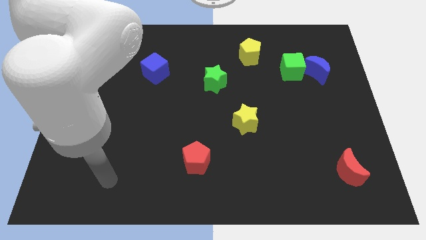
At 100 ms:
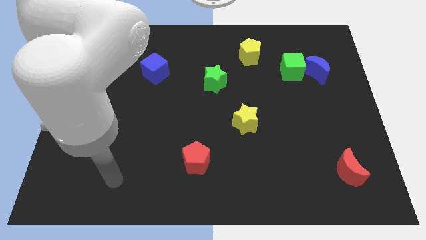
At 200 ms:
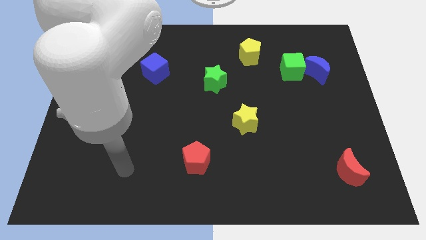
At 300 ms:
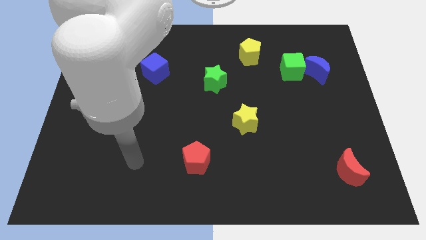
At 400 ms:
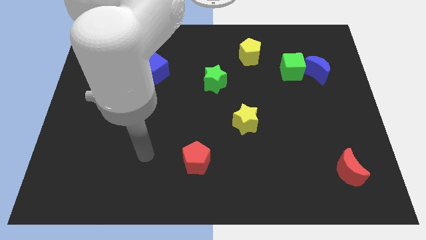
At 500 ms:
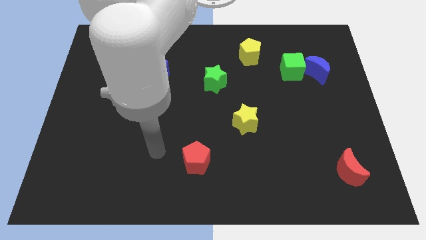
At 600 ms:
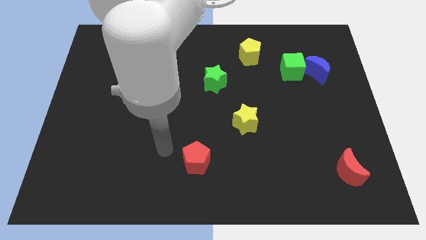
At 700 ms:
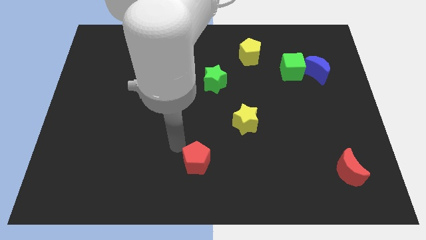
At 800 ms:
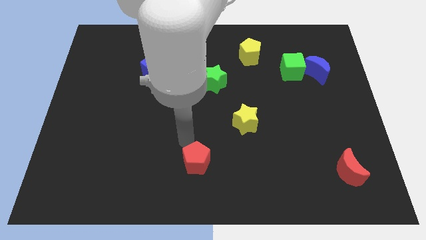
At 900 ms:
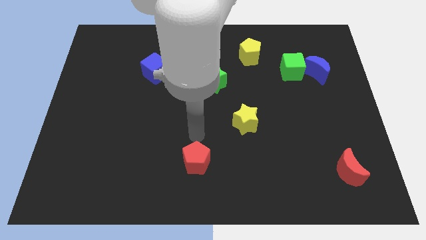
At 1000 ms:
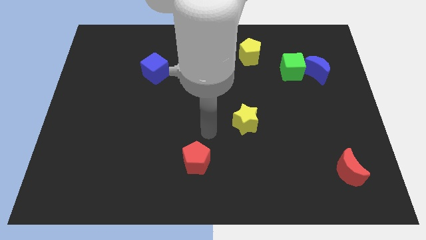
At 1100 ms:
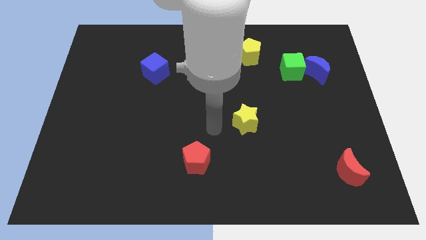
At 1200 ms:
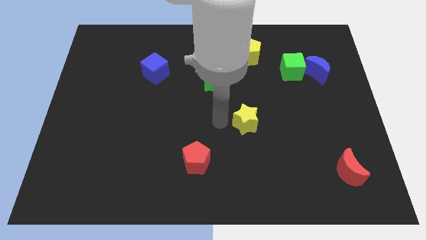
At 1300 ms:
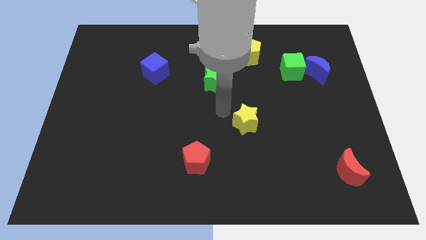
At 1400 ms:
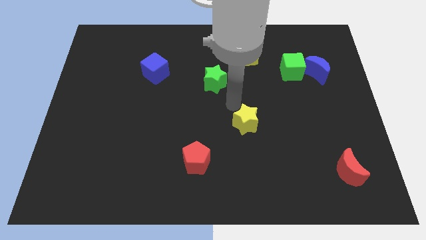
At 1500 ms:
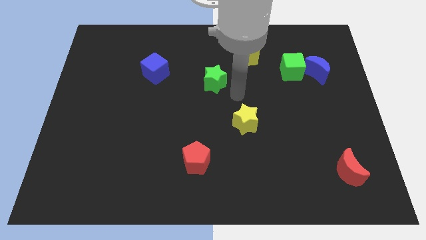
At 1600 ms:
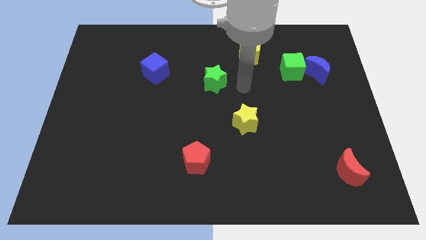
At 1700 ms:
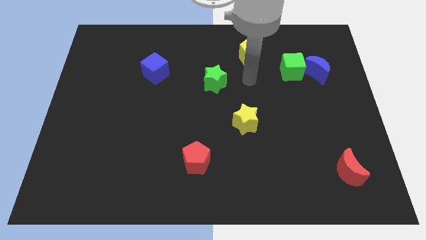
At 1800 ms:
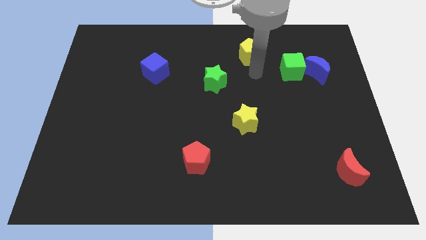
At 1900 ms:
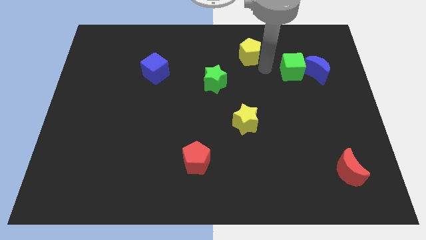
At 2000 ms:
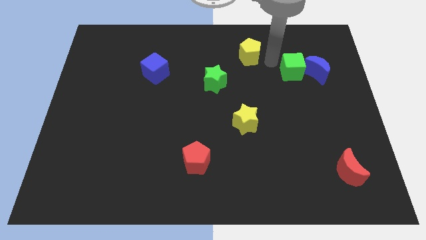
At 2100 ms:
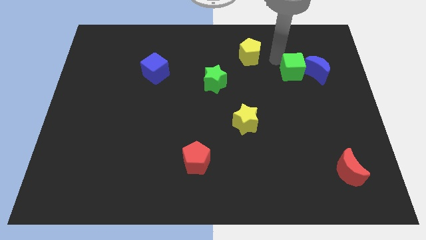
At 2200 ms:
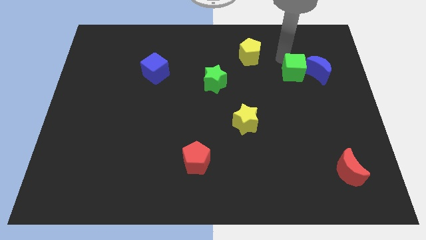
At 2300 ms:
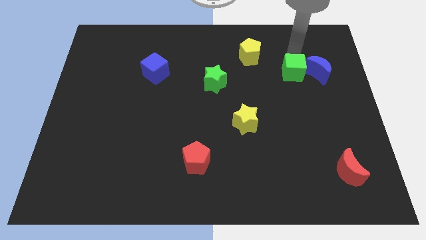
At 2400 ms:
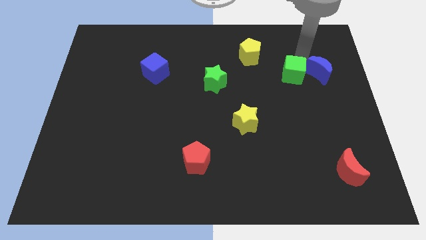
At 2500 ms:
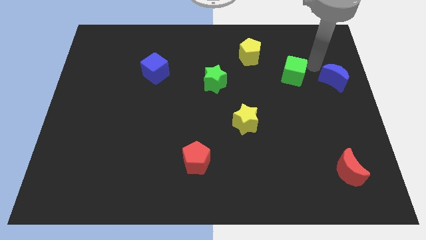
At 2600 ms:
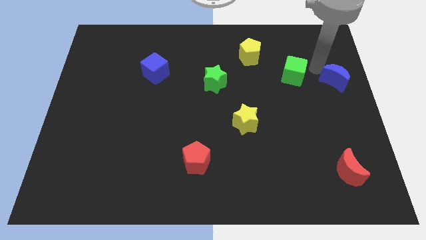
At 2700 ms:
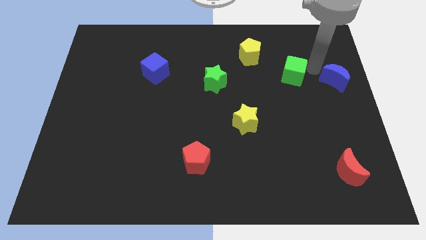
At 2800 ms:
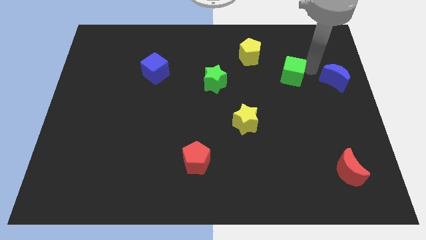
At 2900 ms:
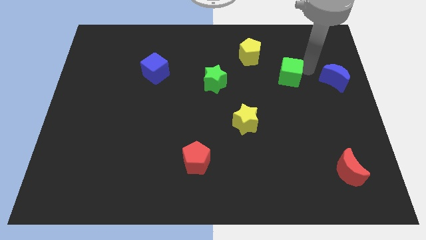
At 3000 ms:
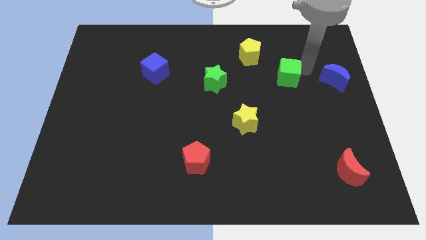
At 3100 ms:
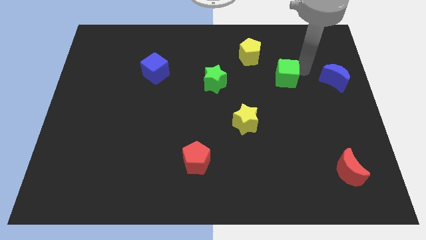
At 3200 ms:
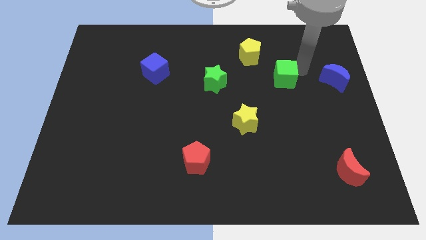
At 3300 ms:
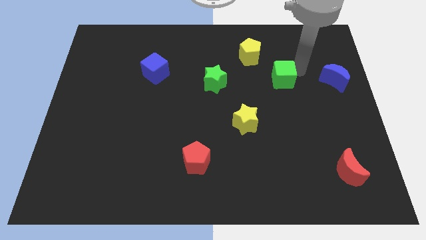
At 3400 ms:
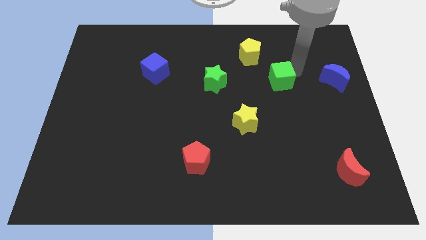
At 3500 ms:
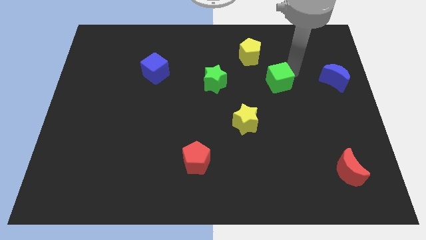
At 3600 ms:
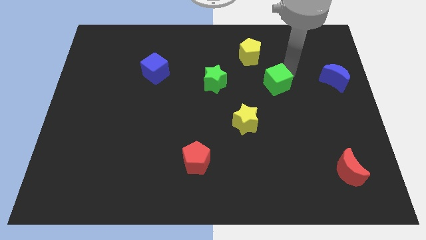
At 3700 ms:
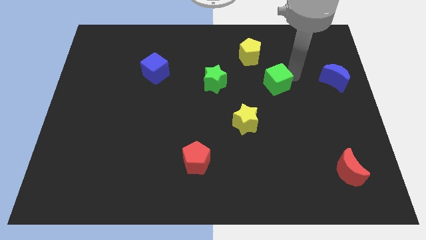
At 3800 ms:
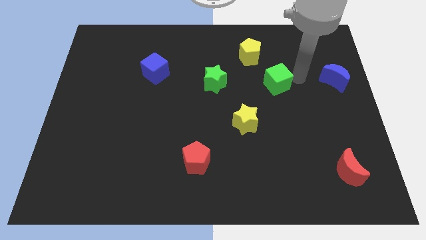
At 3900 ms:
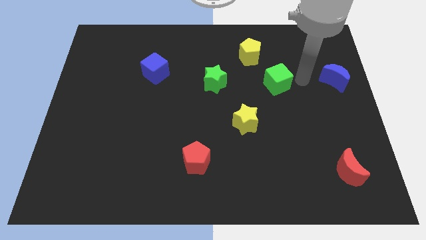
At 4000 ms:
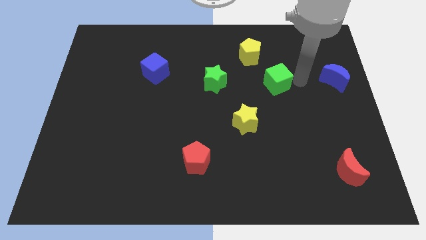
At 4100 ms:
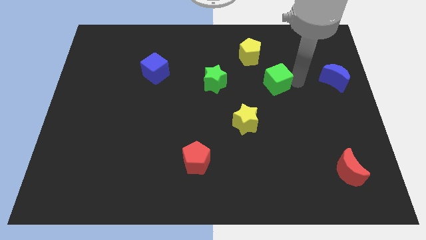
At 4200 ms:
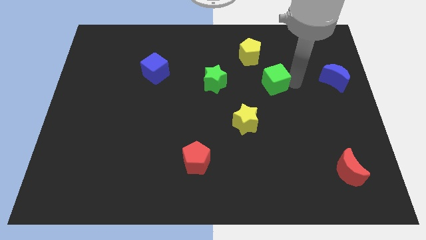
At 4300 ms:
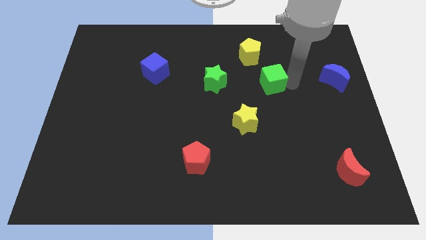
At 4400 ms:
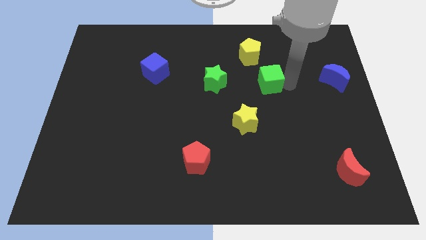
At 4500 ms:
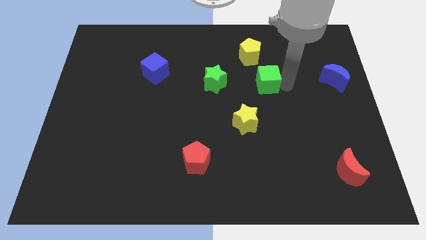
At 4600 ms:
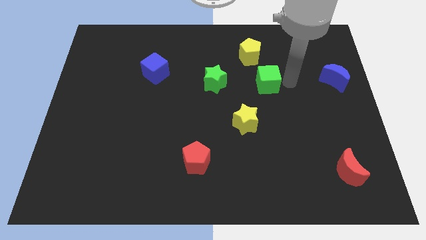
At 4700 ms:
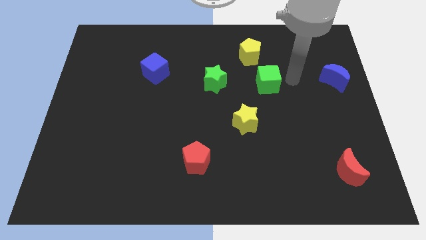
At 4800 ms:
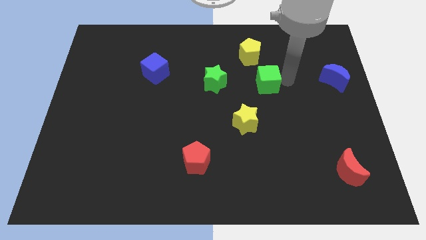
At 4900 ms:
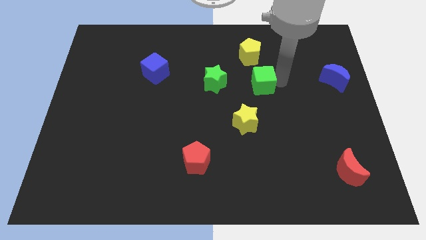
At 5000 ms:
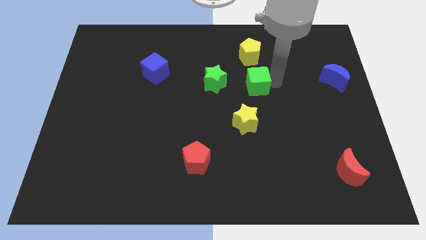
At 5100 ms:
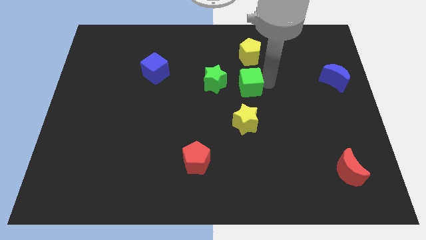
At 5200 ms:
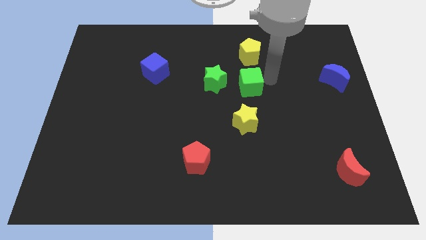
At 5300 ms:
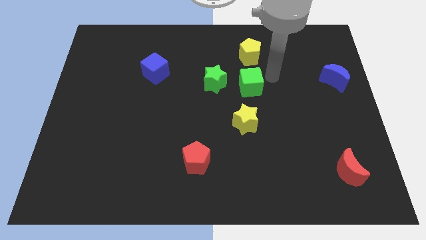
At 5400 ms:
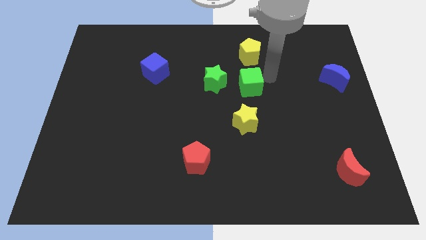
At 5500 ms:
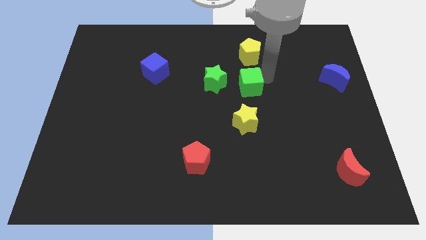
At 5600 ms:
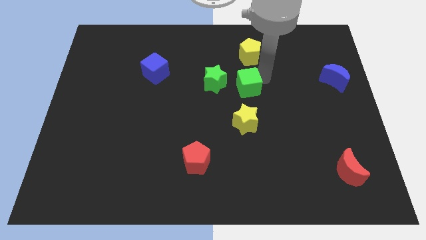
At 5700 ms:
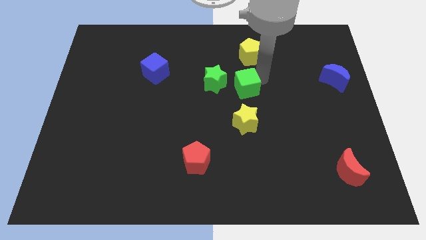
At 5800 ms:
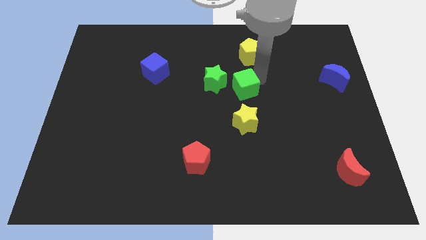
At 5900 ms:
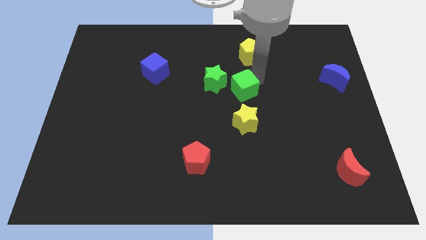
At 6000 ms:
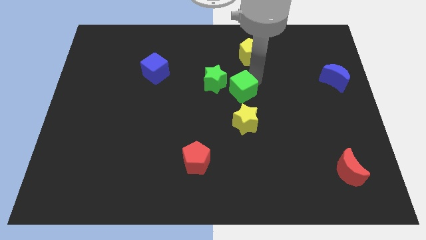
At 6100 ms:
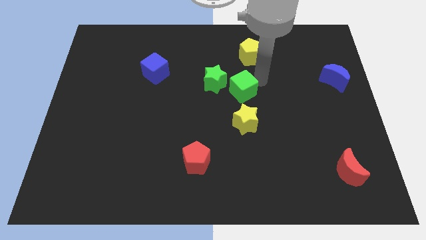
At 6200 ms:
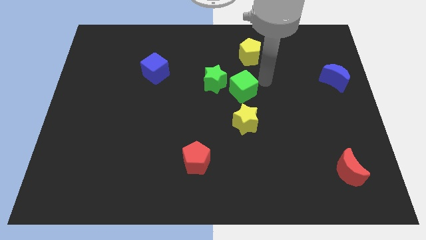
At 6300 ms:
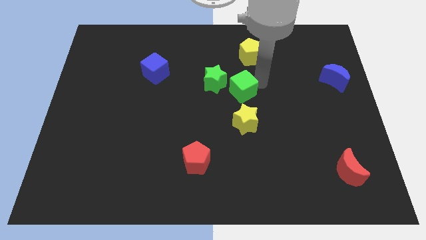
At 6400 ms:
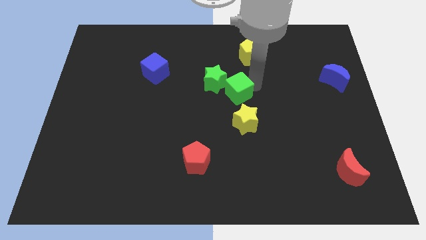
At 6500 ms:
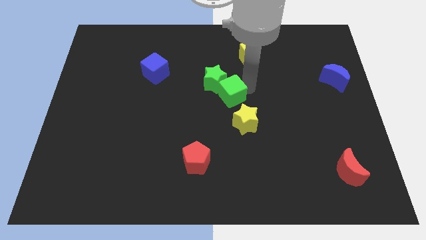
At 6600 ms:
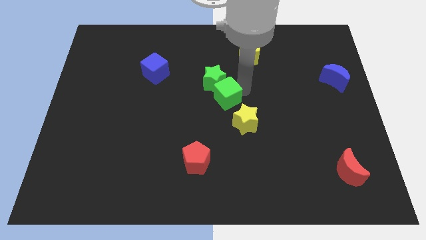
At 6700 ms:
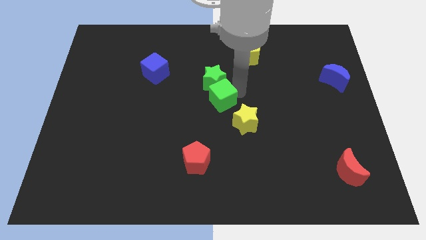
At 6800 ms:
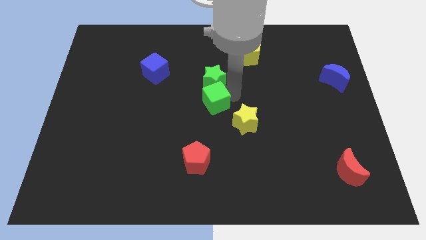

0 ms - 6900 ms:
put the green cube diagonally down and to the left of the green star

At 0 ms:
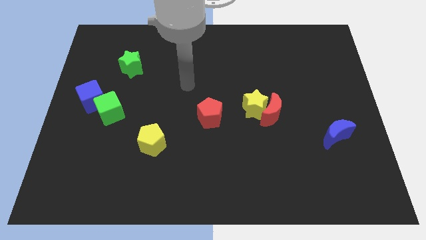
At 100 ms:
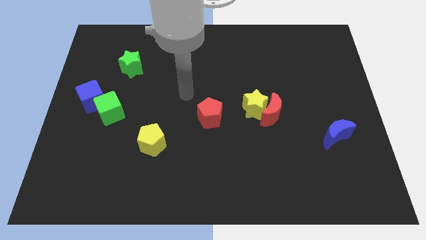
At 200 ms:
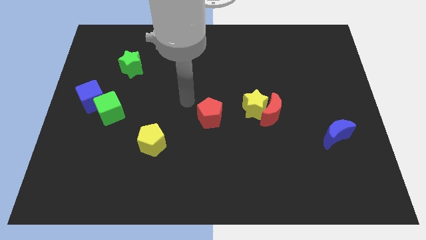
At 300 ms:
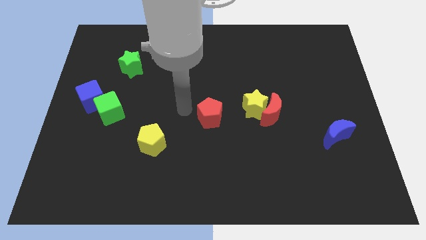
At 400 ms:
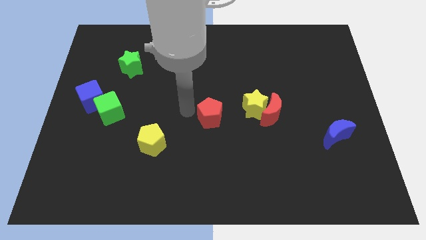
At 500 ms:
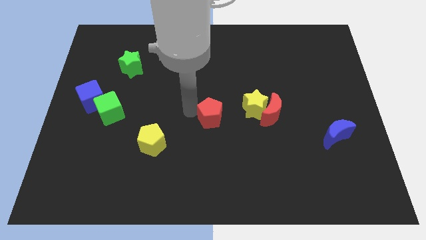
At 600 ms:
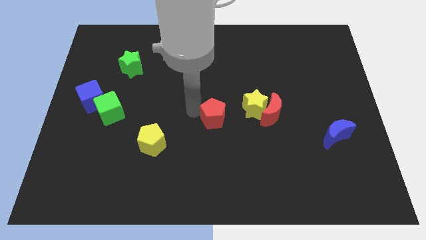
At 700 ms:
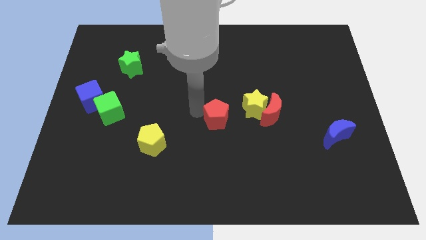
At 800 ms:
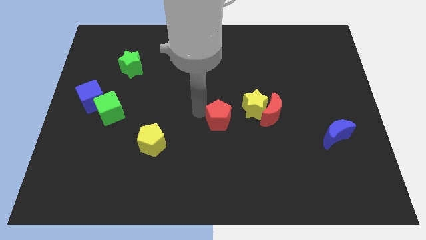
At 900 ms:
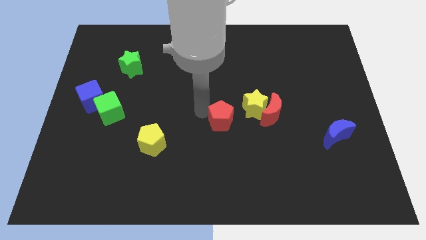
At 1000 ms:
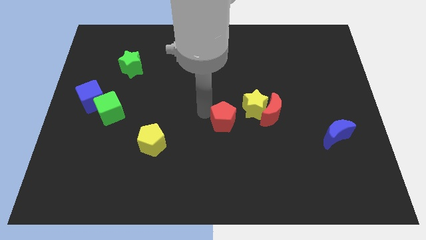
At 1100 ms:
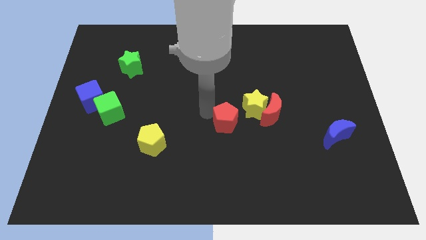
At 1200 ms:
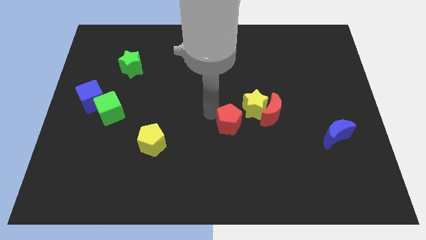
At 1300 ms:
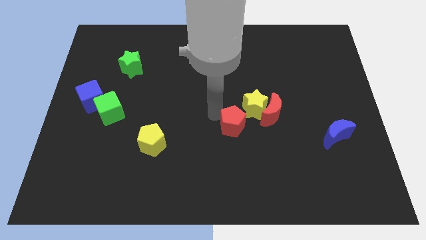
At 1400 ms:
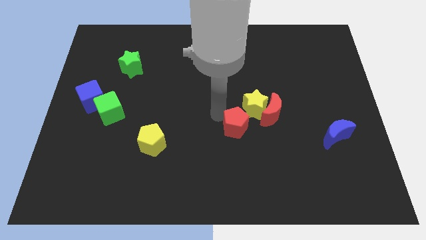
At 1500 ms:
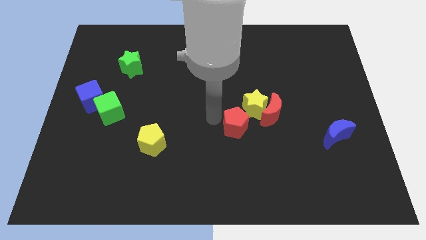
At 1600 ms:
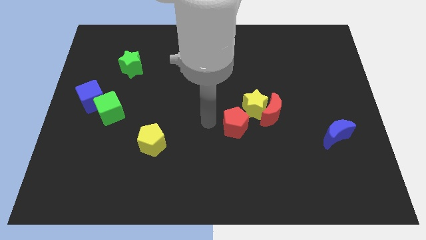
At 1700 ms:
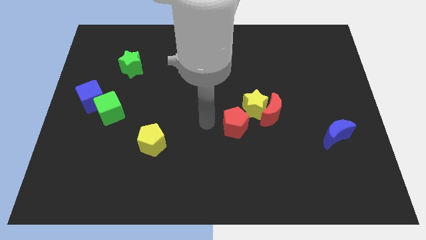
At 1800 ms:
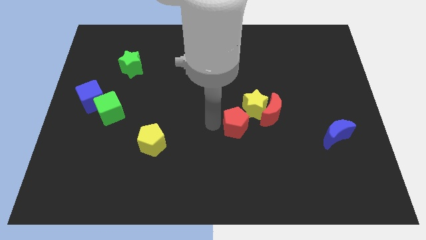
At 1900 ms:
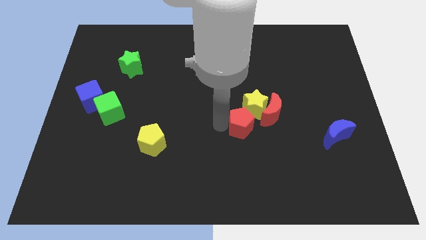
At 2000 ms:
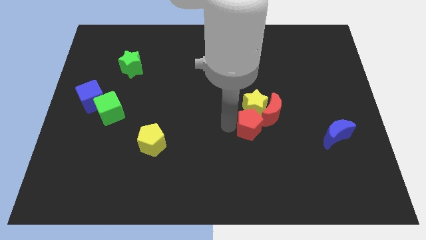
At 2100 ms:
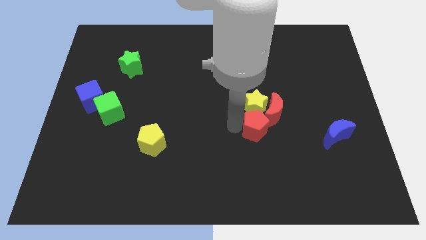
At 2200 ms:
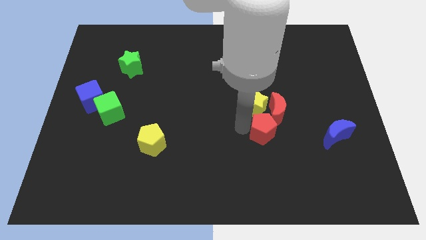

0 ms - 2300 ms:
push the red pentagon left of the blue moon
